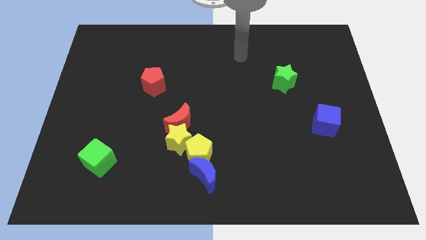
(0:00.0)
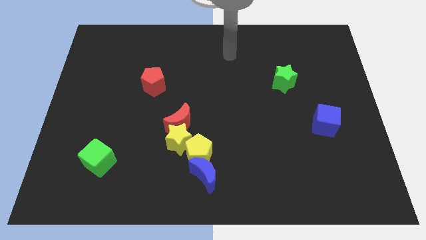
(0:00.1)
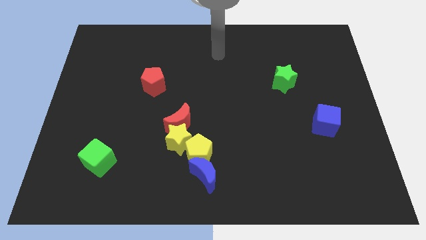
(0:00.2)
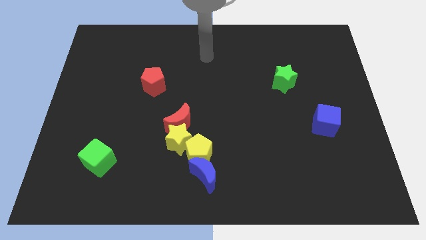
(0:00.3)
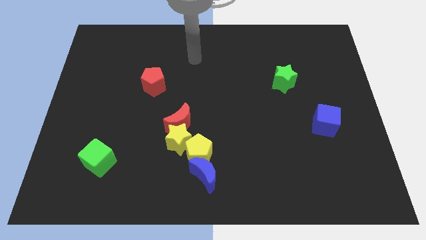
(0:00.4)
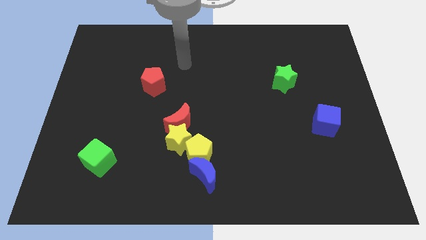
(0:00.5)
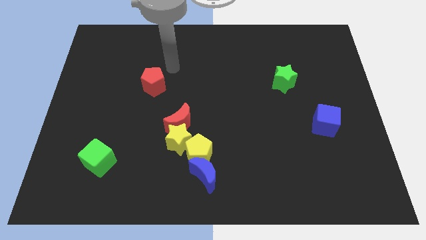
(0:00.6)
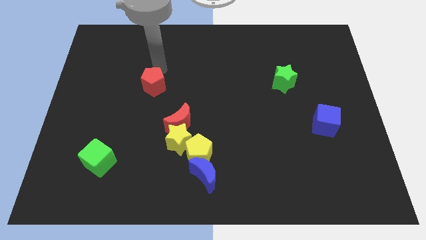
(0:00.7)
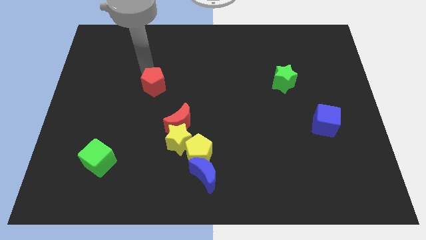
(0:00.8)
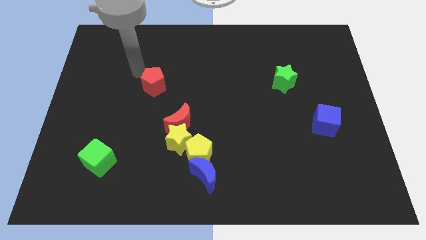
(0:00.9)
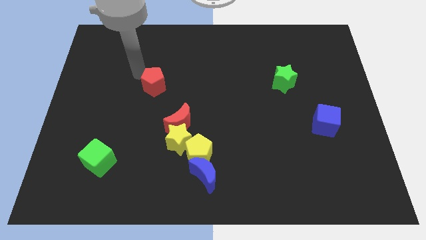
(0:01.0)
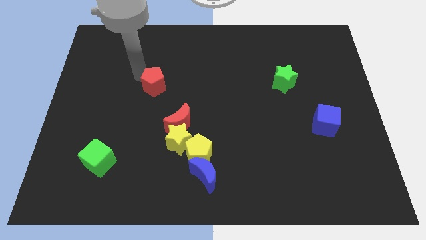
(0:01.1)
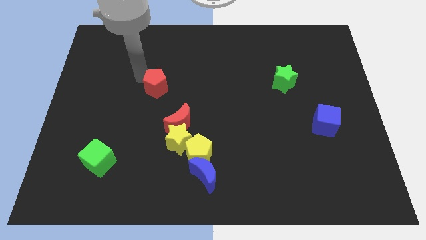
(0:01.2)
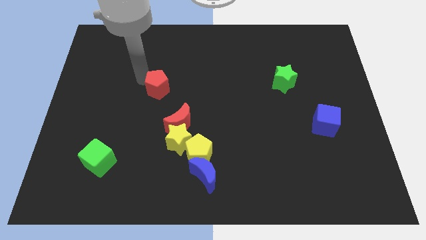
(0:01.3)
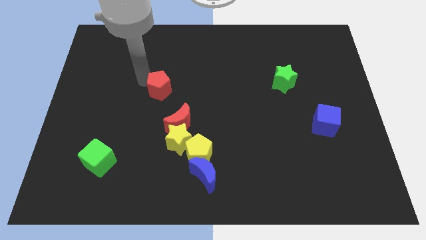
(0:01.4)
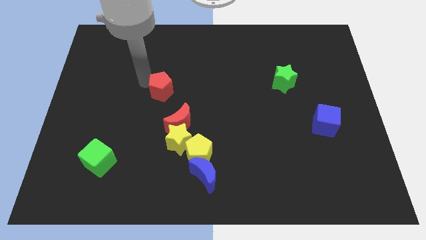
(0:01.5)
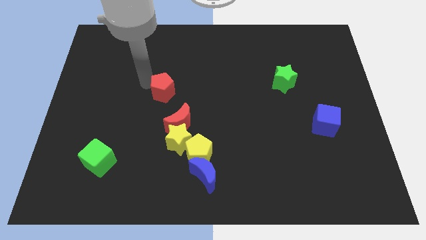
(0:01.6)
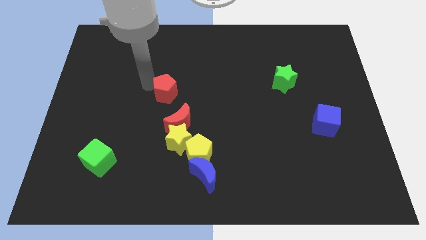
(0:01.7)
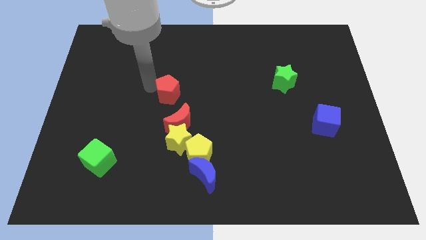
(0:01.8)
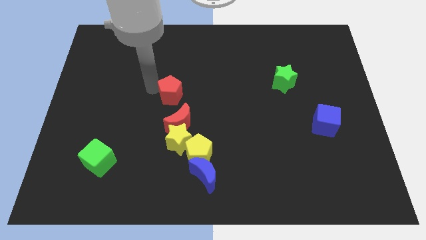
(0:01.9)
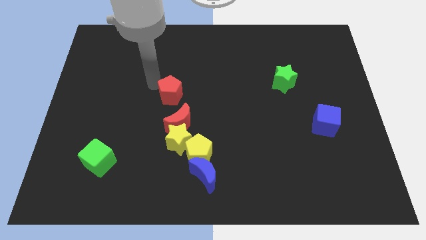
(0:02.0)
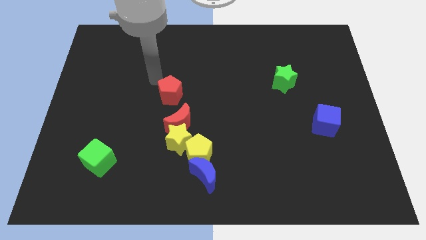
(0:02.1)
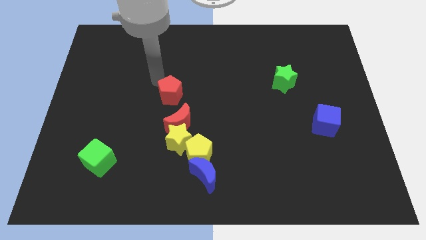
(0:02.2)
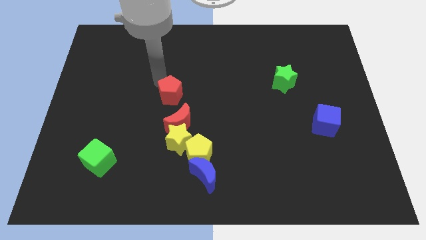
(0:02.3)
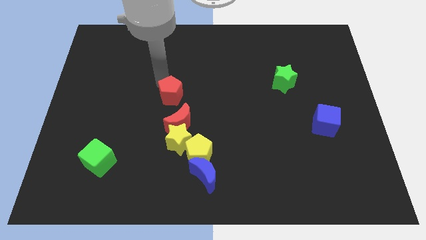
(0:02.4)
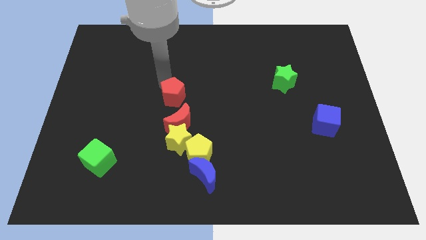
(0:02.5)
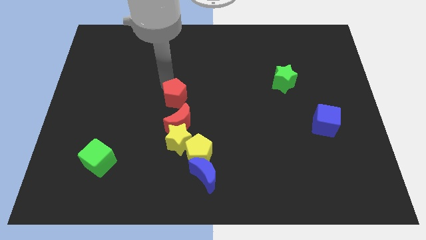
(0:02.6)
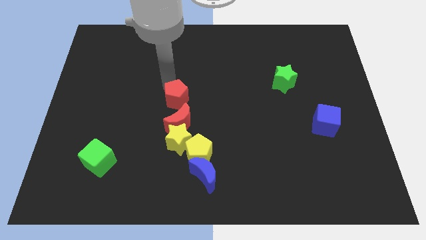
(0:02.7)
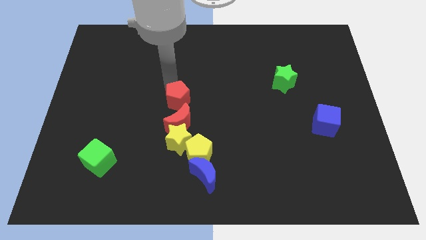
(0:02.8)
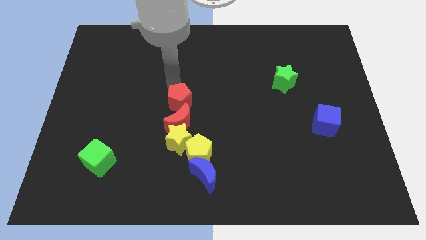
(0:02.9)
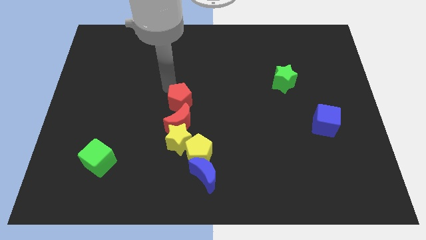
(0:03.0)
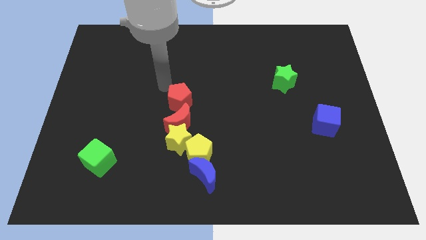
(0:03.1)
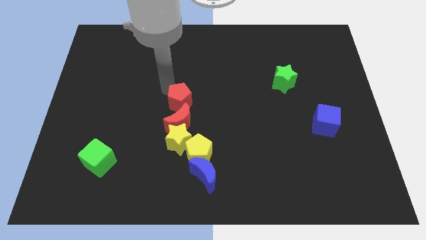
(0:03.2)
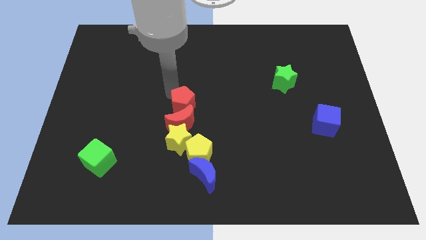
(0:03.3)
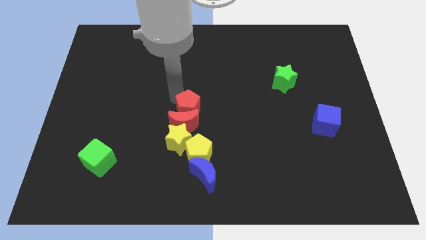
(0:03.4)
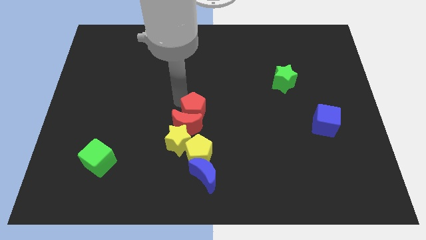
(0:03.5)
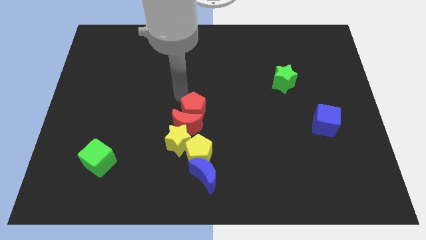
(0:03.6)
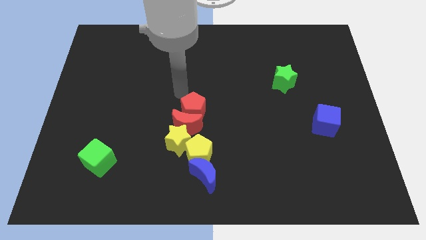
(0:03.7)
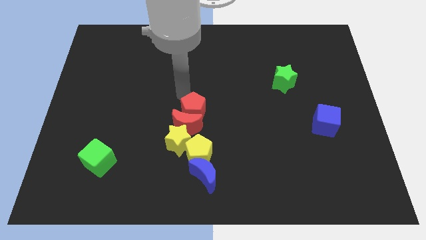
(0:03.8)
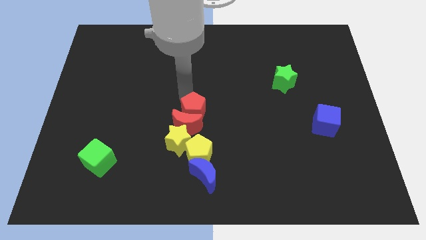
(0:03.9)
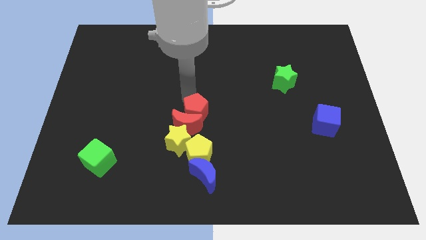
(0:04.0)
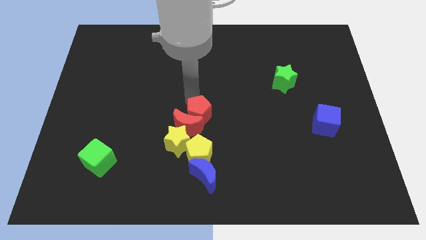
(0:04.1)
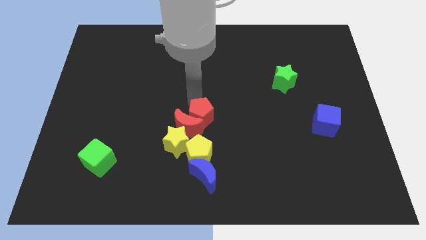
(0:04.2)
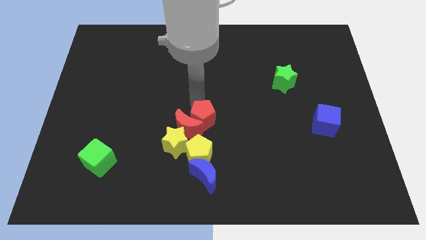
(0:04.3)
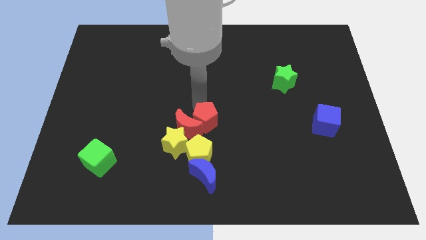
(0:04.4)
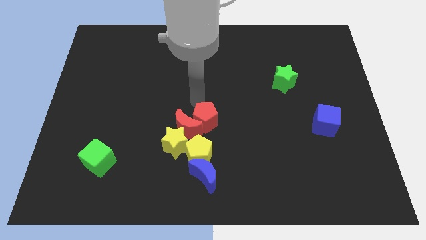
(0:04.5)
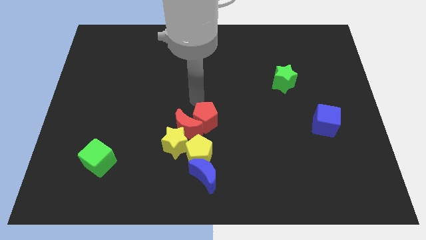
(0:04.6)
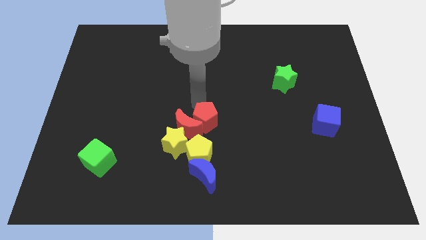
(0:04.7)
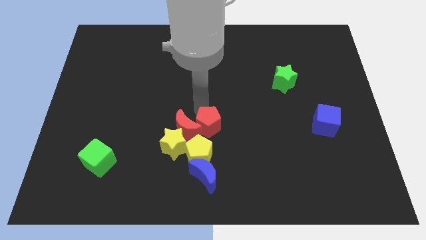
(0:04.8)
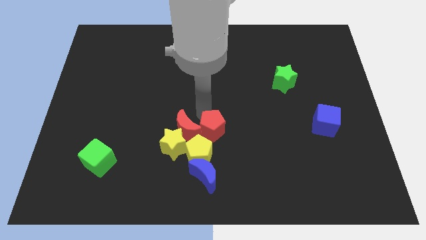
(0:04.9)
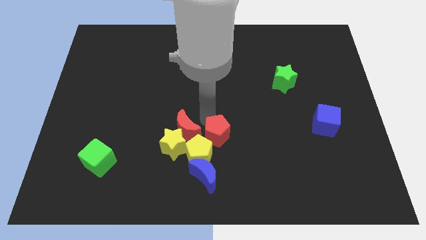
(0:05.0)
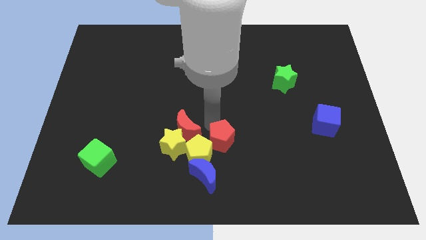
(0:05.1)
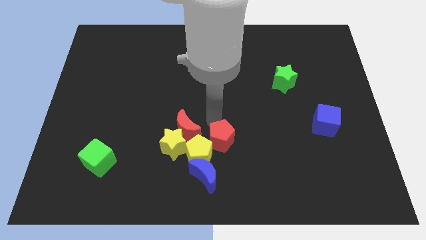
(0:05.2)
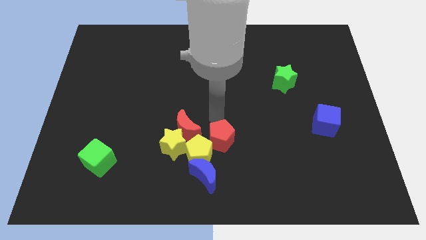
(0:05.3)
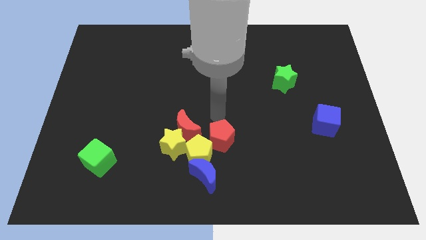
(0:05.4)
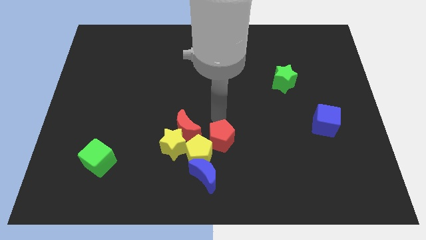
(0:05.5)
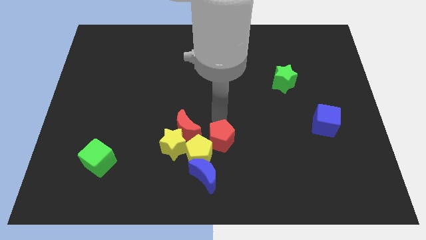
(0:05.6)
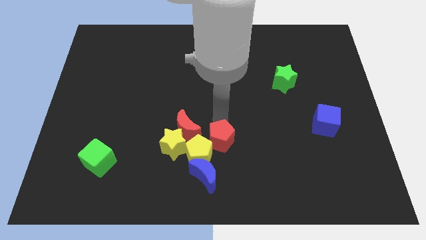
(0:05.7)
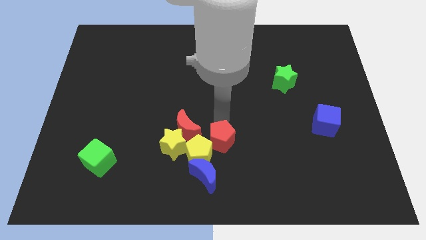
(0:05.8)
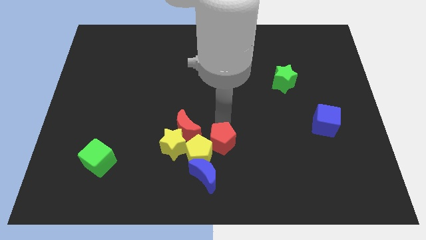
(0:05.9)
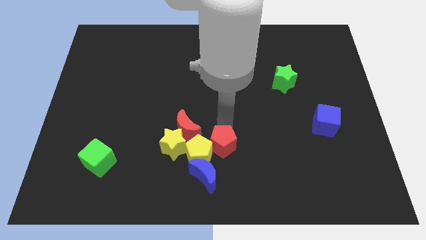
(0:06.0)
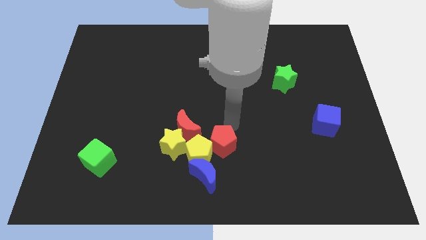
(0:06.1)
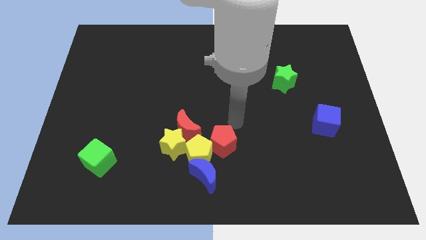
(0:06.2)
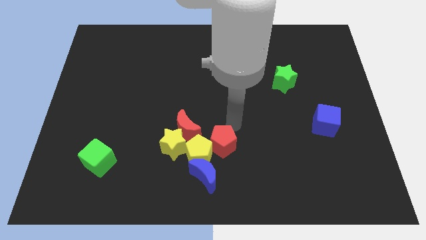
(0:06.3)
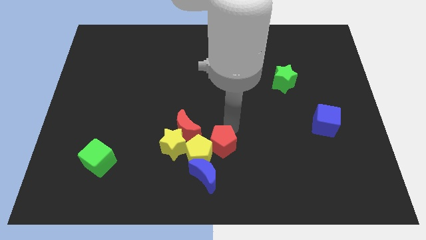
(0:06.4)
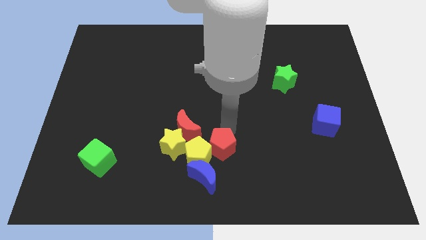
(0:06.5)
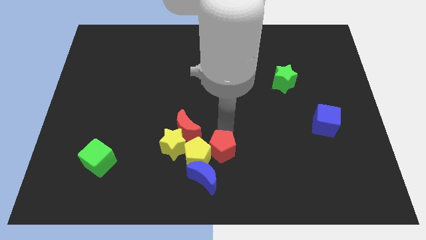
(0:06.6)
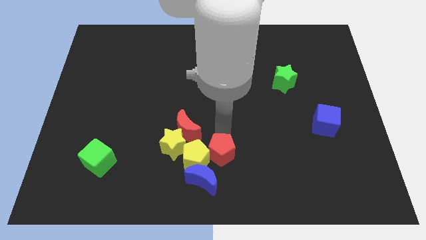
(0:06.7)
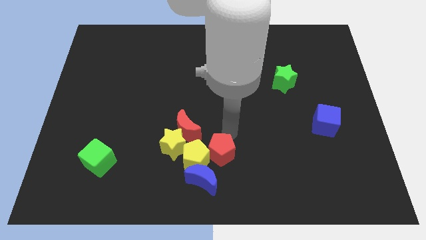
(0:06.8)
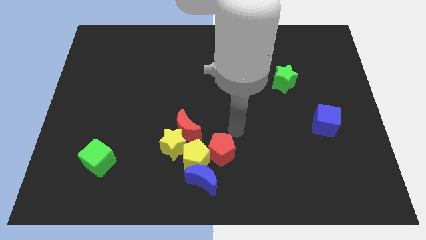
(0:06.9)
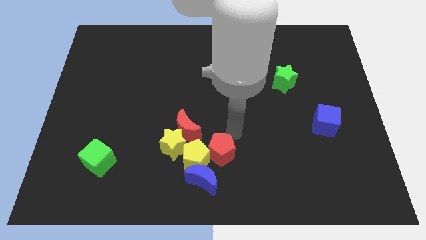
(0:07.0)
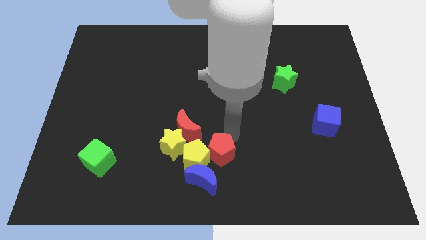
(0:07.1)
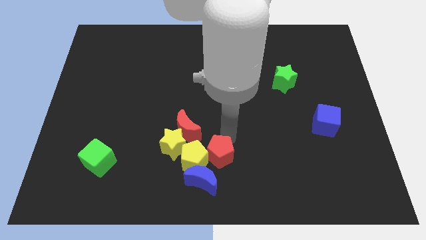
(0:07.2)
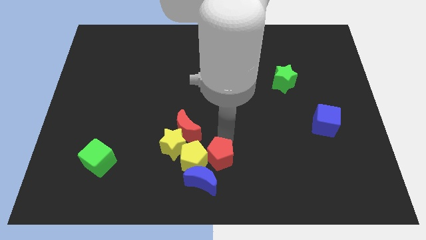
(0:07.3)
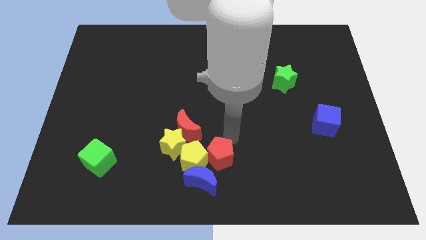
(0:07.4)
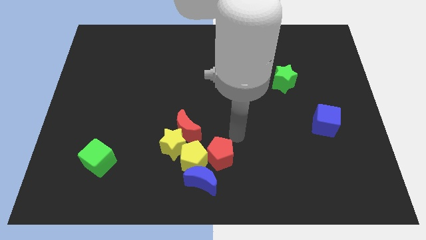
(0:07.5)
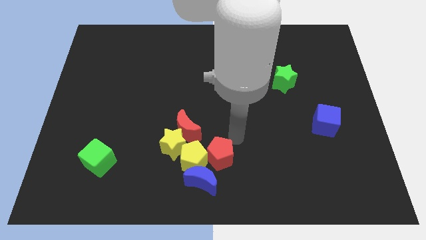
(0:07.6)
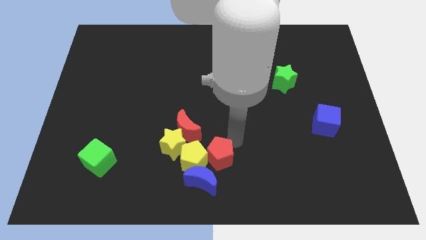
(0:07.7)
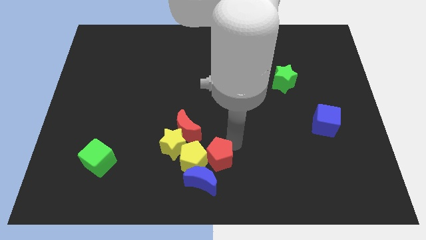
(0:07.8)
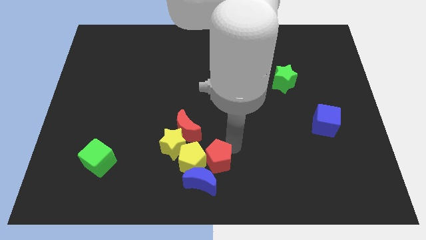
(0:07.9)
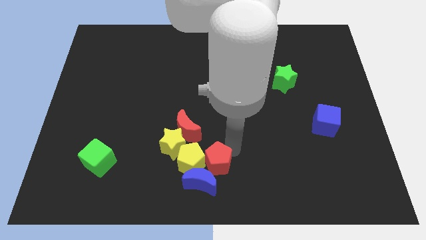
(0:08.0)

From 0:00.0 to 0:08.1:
push the red pentagon close to the blue moon
